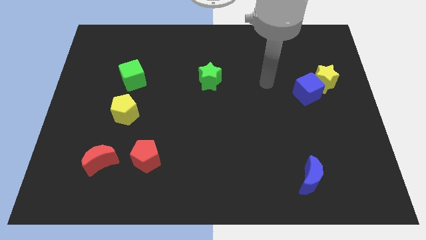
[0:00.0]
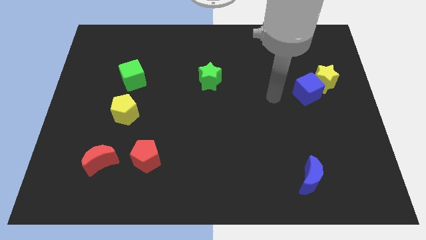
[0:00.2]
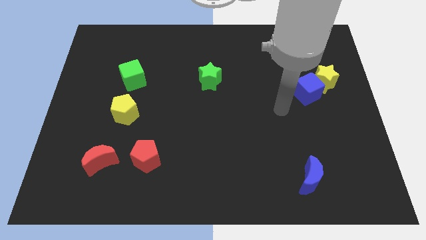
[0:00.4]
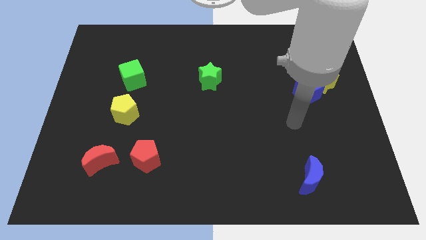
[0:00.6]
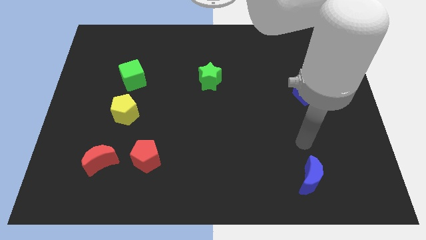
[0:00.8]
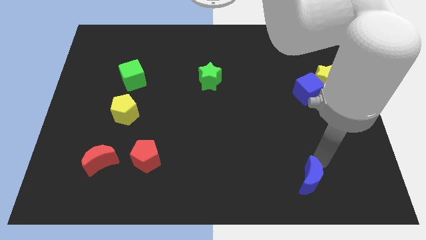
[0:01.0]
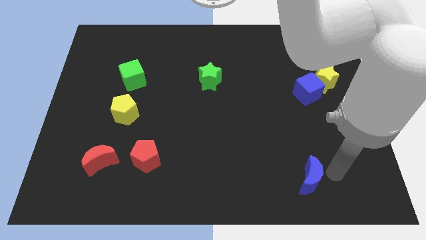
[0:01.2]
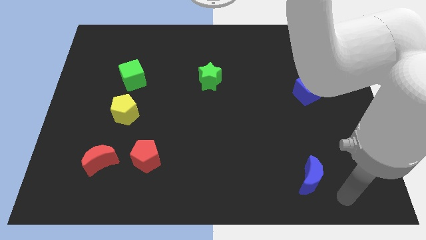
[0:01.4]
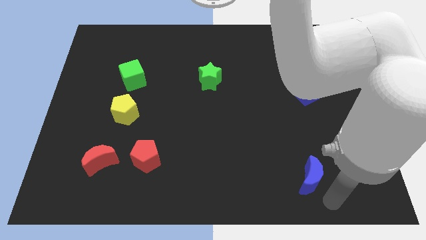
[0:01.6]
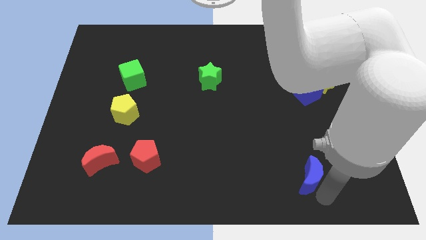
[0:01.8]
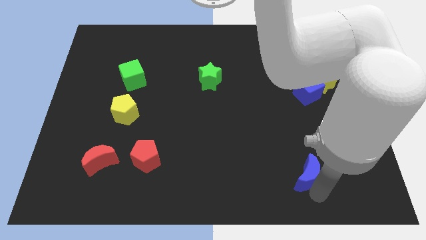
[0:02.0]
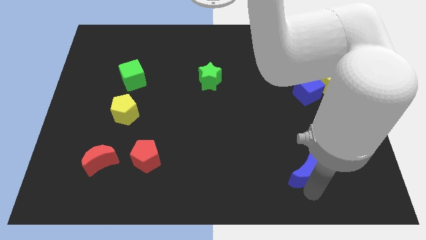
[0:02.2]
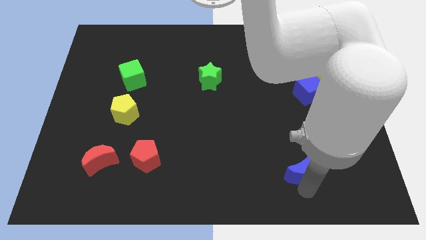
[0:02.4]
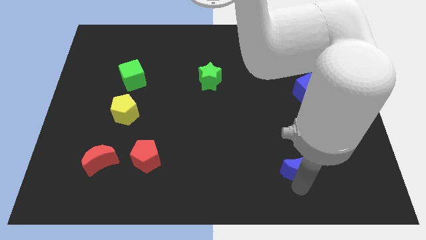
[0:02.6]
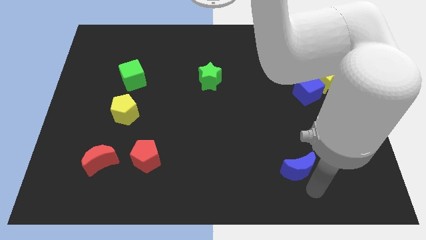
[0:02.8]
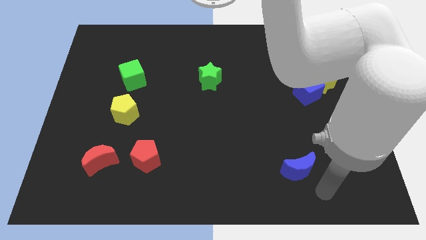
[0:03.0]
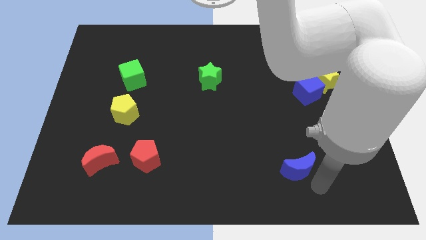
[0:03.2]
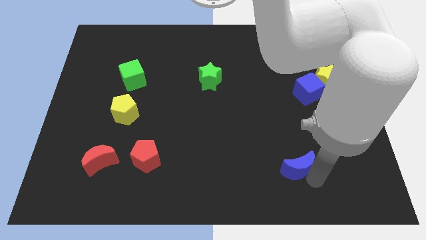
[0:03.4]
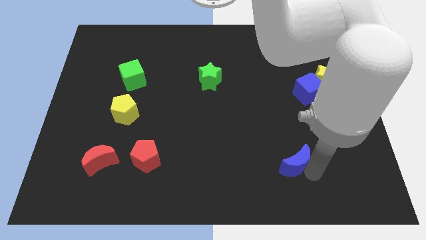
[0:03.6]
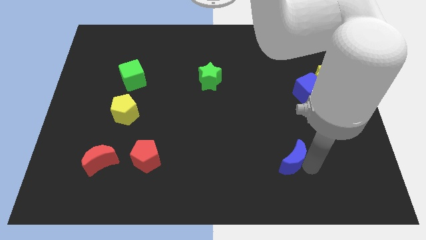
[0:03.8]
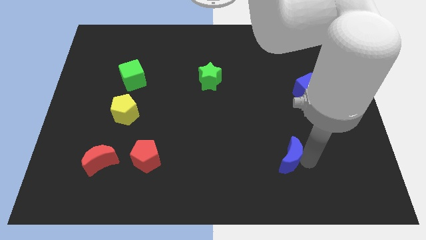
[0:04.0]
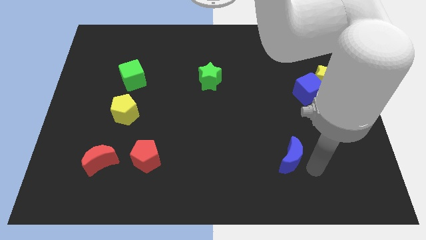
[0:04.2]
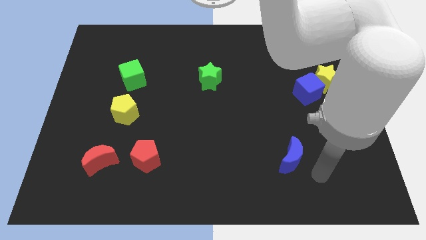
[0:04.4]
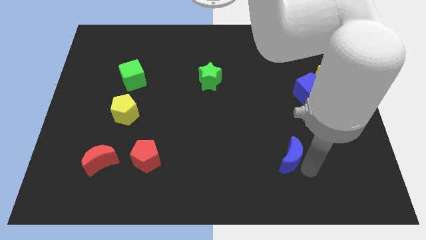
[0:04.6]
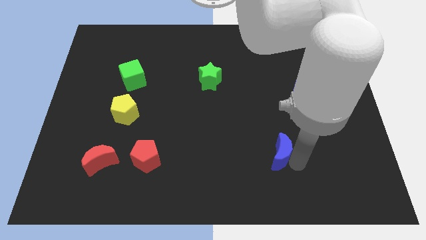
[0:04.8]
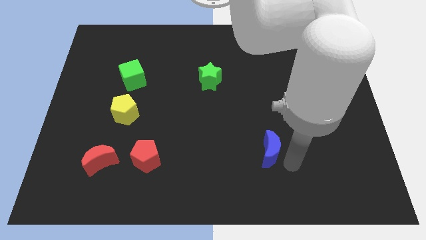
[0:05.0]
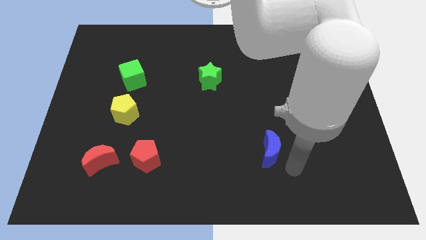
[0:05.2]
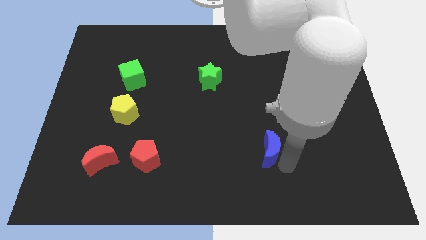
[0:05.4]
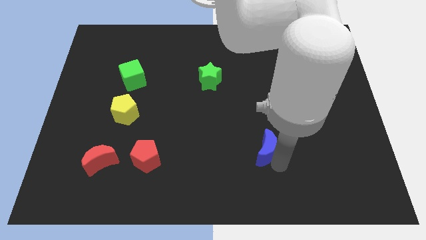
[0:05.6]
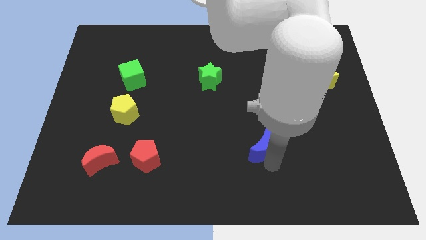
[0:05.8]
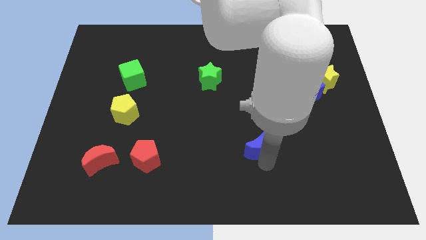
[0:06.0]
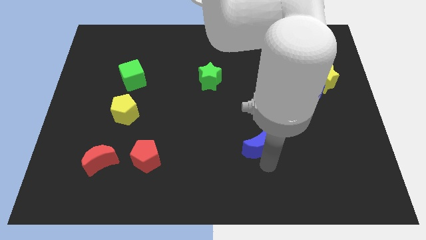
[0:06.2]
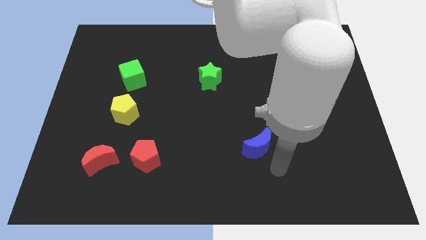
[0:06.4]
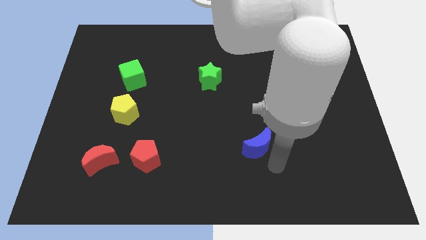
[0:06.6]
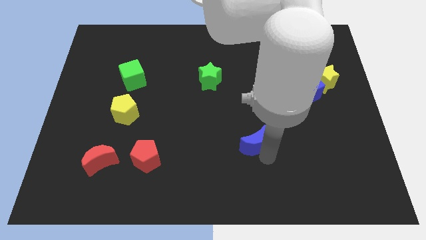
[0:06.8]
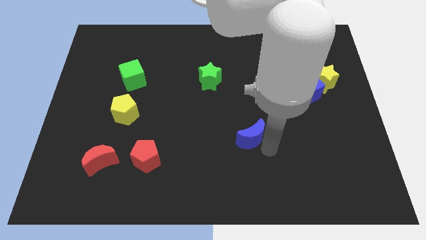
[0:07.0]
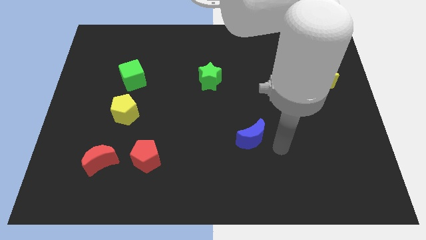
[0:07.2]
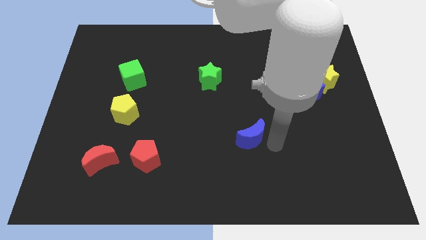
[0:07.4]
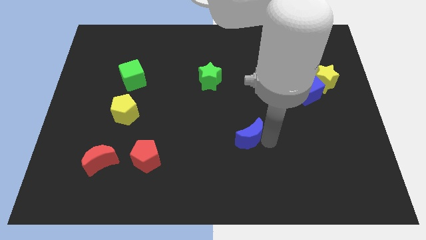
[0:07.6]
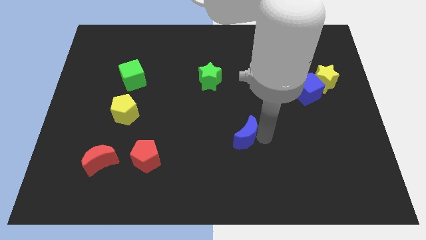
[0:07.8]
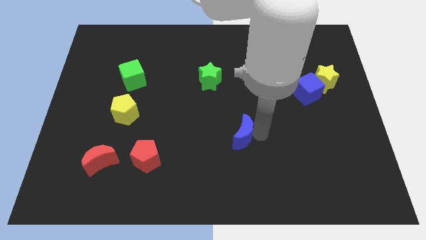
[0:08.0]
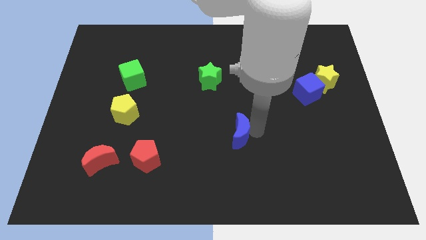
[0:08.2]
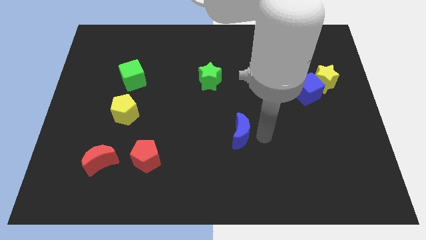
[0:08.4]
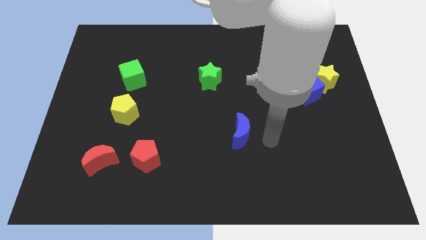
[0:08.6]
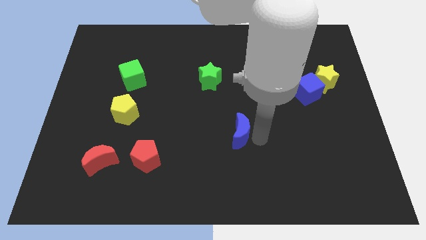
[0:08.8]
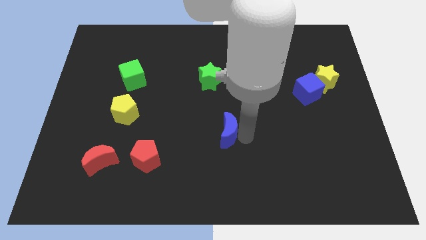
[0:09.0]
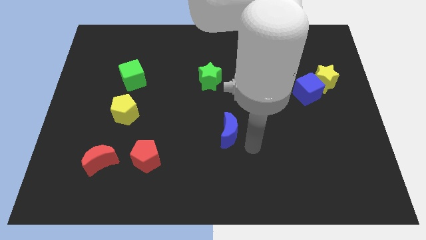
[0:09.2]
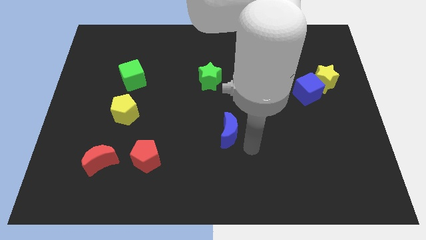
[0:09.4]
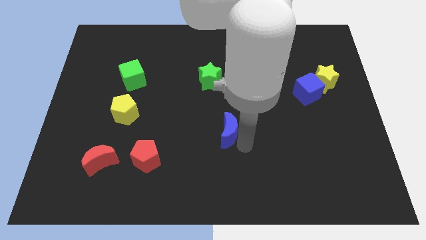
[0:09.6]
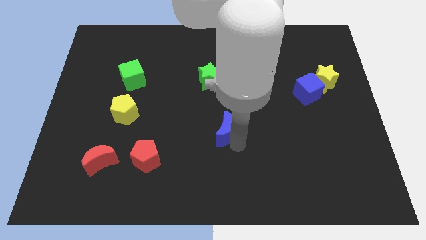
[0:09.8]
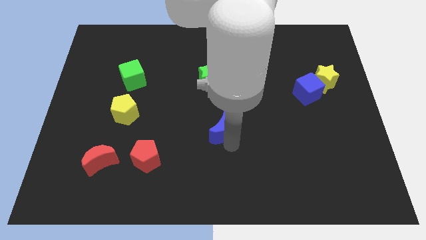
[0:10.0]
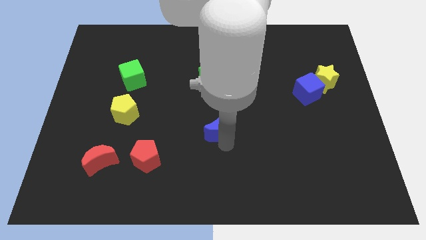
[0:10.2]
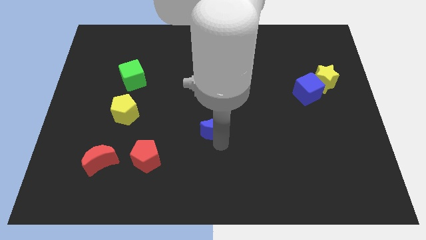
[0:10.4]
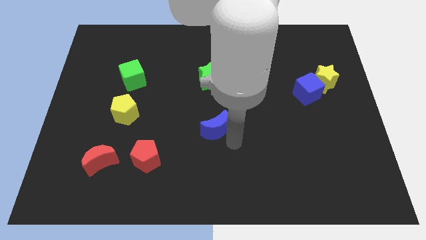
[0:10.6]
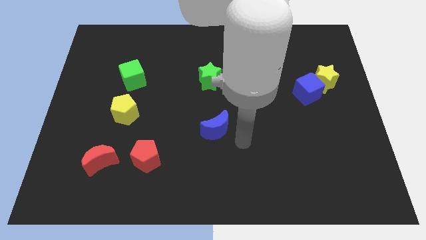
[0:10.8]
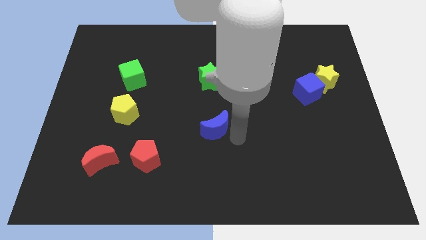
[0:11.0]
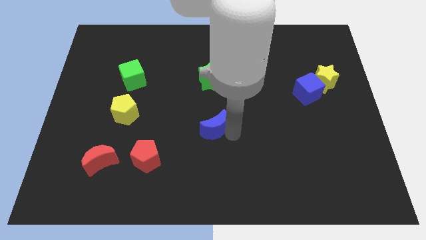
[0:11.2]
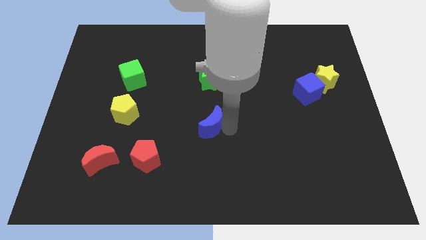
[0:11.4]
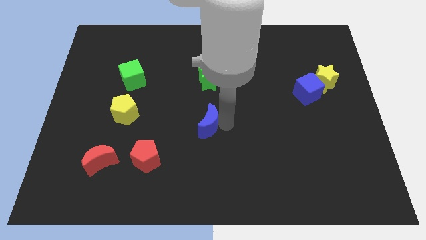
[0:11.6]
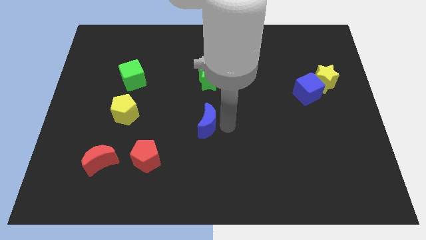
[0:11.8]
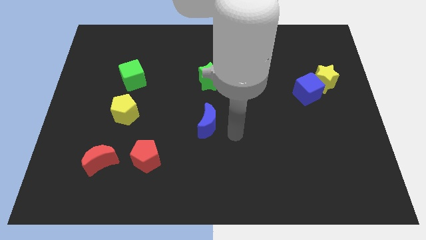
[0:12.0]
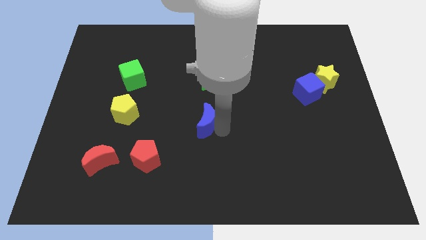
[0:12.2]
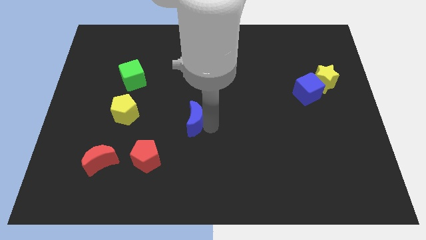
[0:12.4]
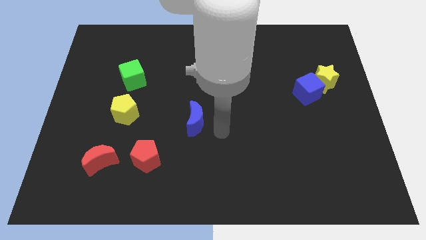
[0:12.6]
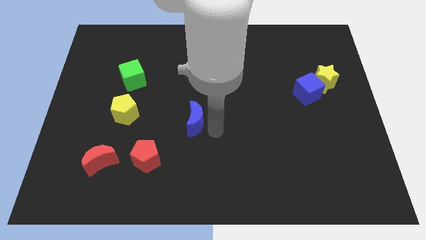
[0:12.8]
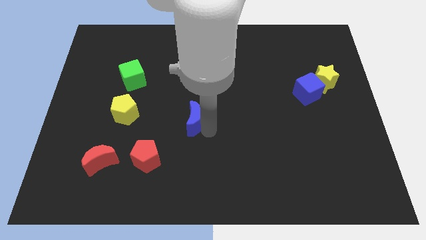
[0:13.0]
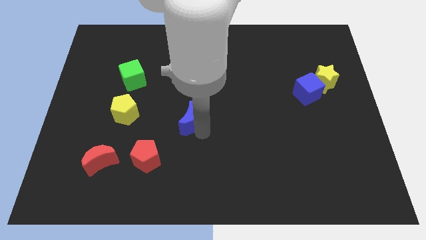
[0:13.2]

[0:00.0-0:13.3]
put the blue moon just right of the yellow pentagon

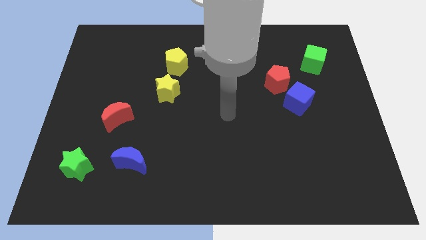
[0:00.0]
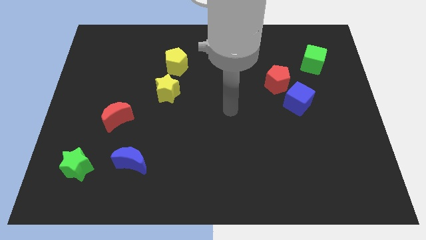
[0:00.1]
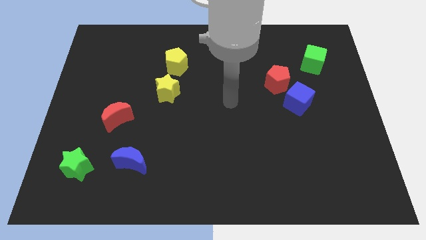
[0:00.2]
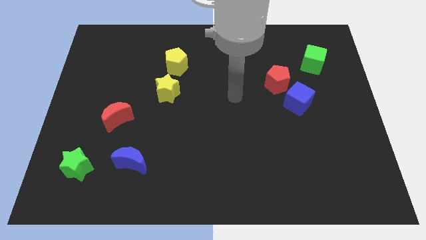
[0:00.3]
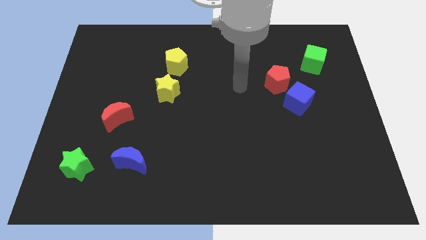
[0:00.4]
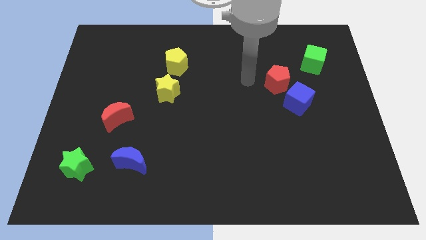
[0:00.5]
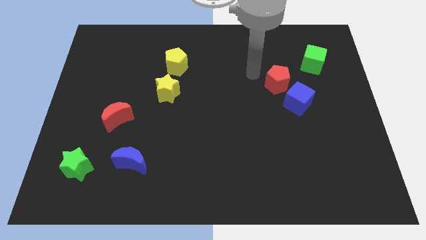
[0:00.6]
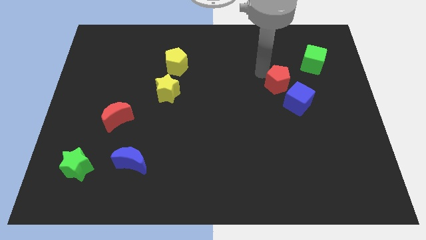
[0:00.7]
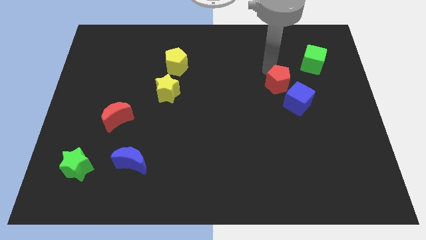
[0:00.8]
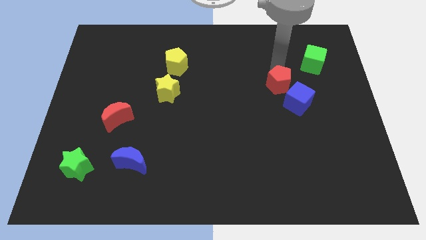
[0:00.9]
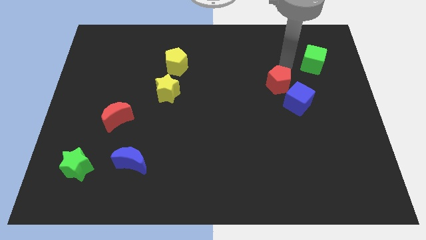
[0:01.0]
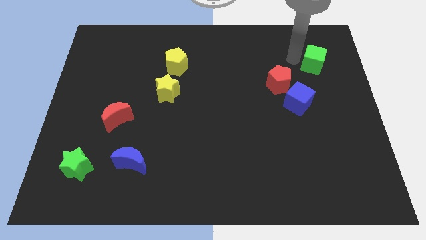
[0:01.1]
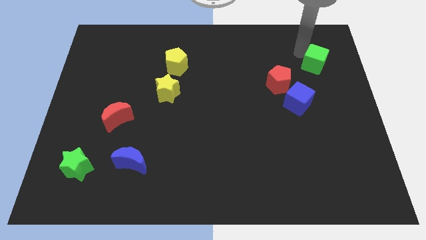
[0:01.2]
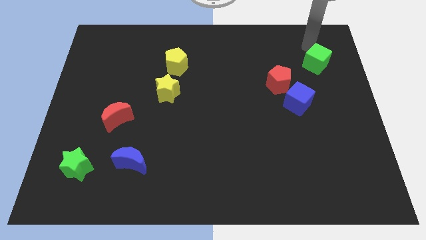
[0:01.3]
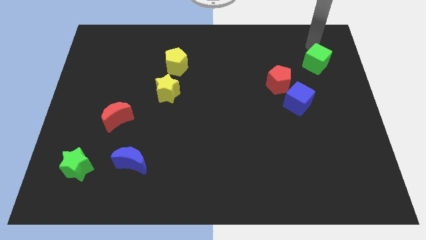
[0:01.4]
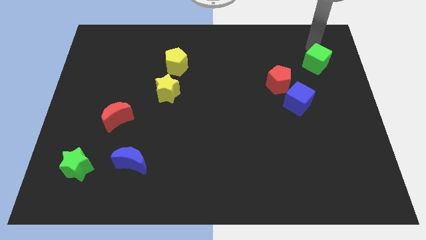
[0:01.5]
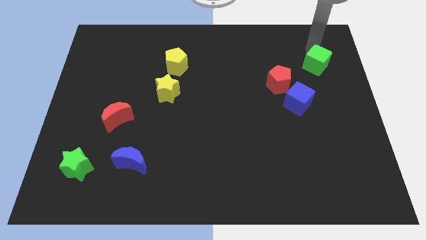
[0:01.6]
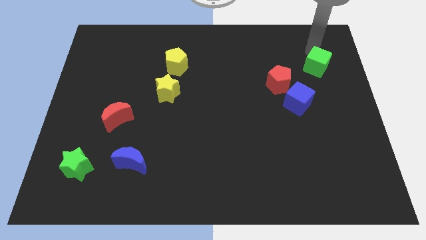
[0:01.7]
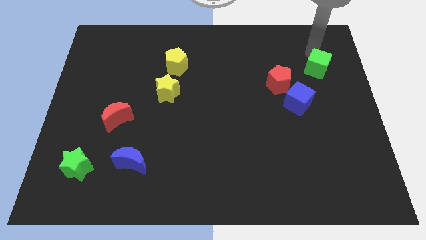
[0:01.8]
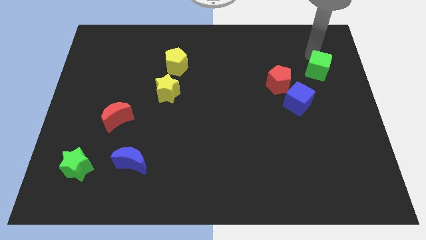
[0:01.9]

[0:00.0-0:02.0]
push the green cube to the right of the red pentagon
